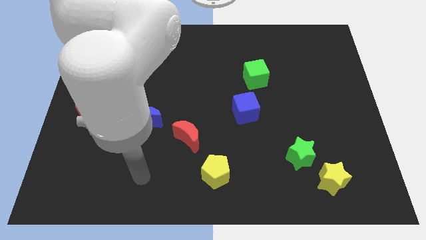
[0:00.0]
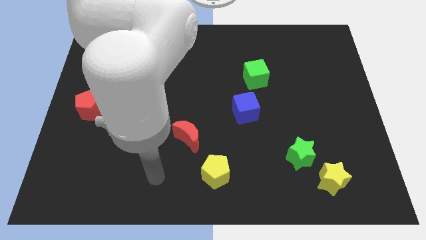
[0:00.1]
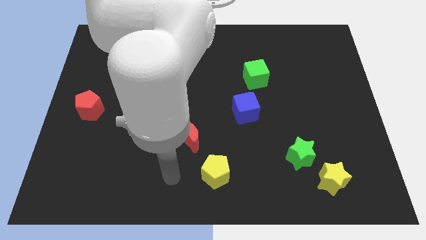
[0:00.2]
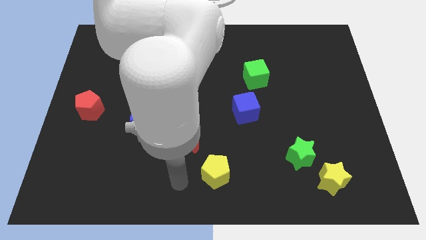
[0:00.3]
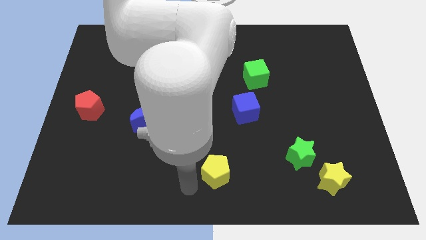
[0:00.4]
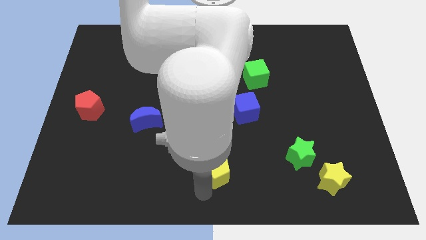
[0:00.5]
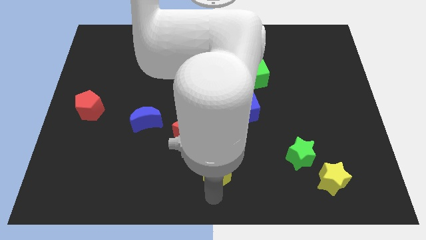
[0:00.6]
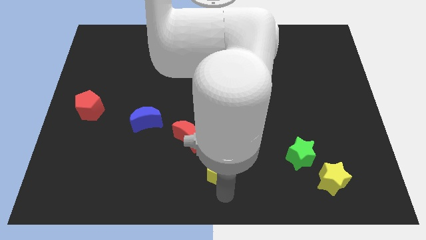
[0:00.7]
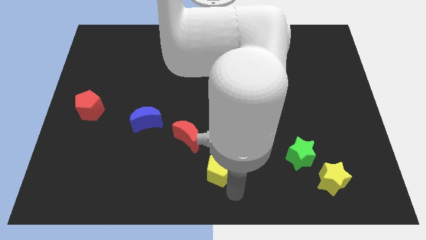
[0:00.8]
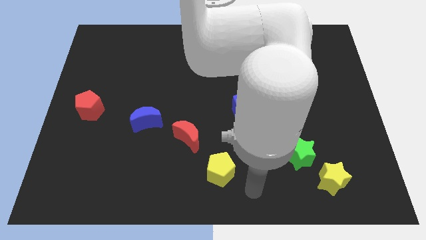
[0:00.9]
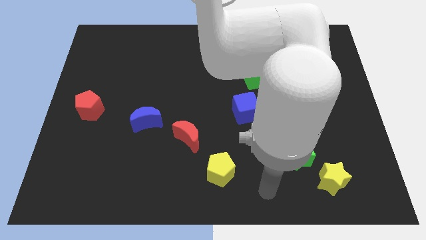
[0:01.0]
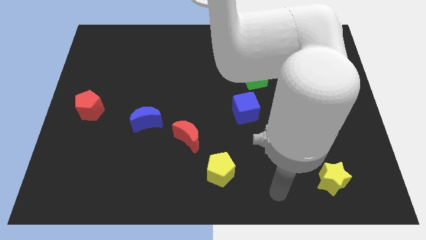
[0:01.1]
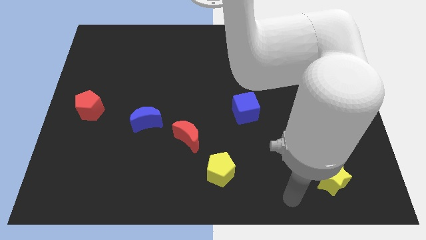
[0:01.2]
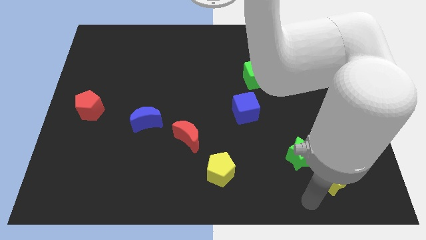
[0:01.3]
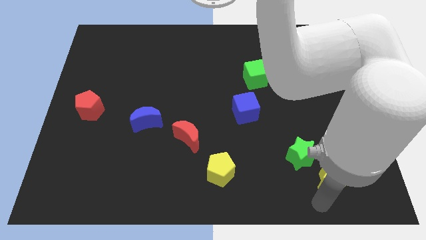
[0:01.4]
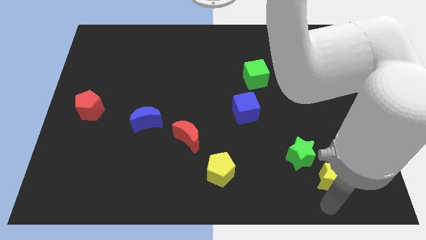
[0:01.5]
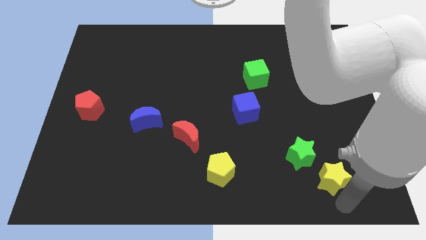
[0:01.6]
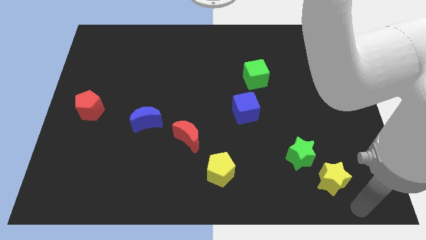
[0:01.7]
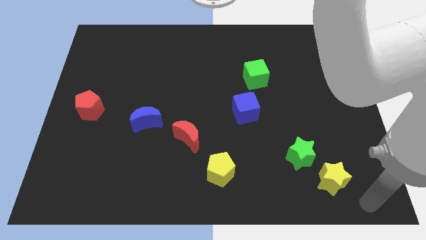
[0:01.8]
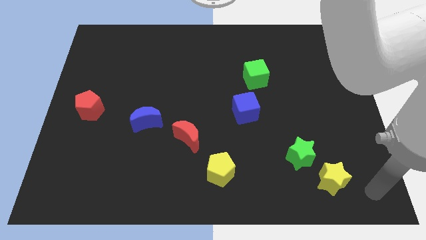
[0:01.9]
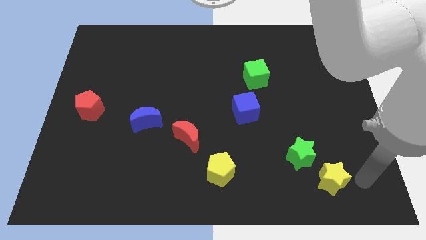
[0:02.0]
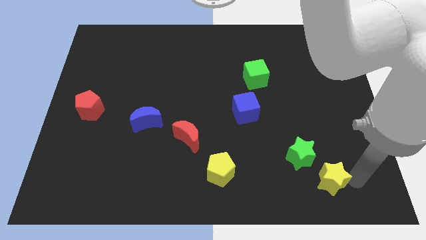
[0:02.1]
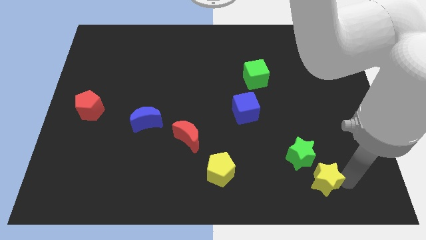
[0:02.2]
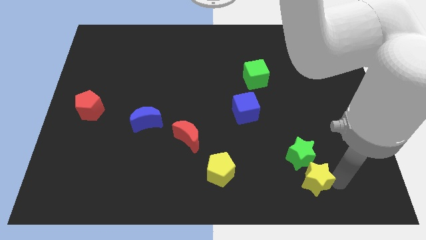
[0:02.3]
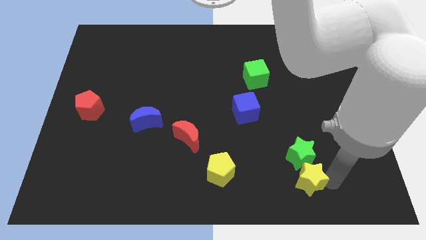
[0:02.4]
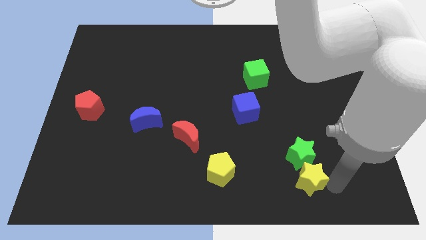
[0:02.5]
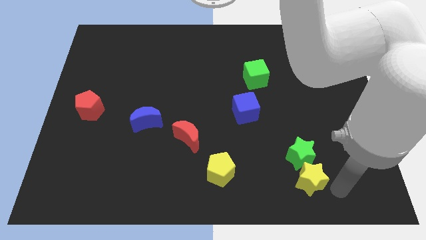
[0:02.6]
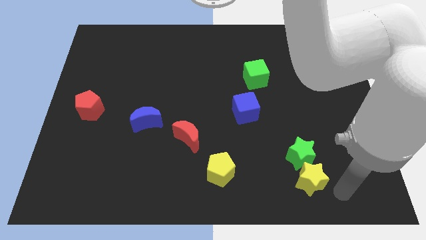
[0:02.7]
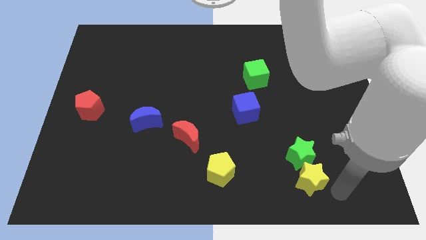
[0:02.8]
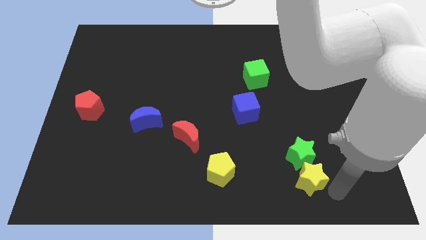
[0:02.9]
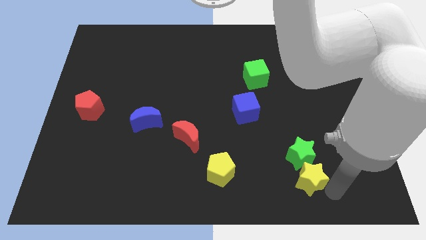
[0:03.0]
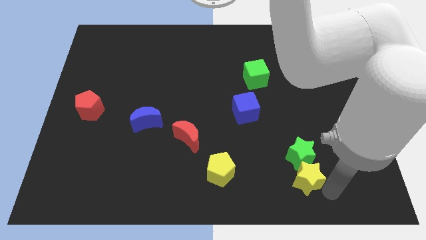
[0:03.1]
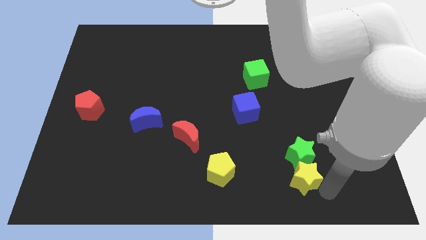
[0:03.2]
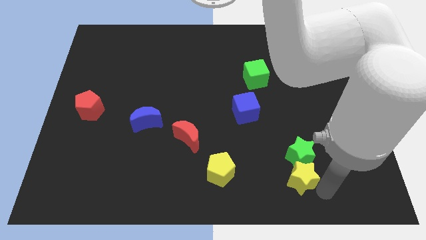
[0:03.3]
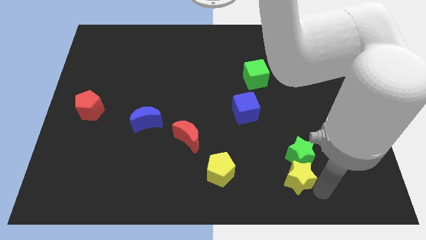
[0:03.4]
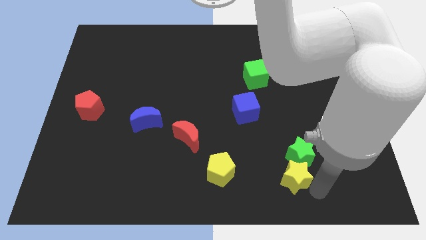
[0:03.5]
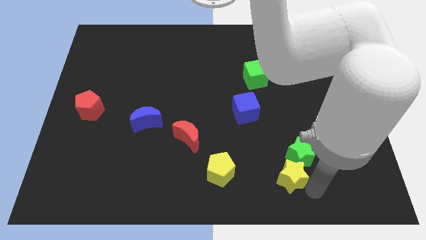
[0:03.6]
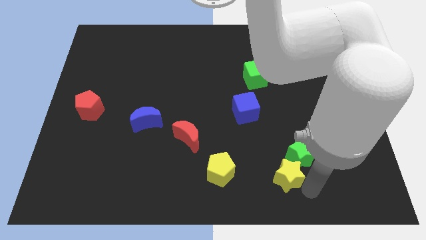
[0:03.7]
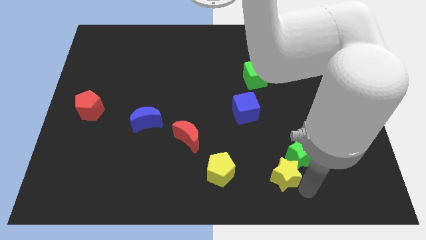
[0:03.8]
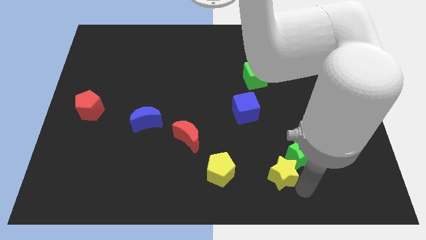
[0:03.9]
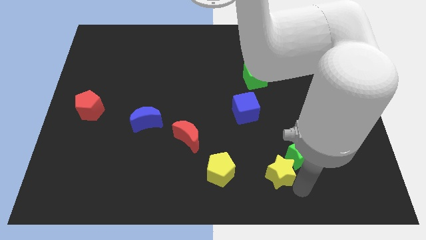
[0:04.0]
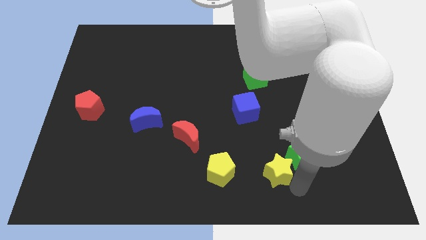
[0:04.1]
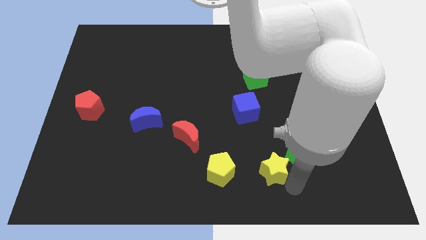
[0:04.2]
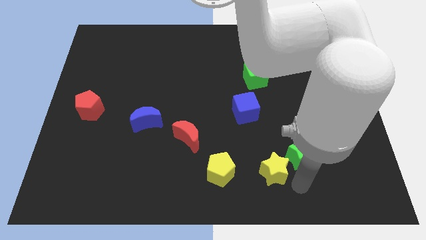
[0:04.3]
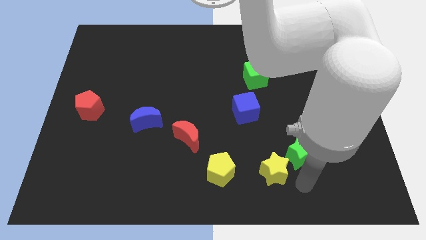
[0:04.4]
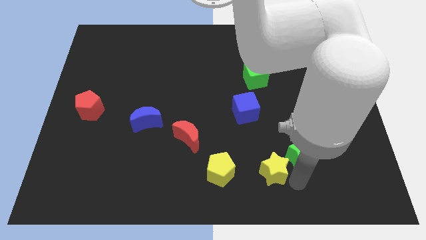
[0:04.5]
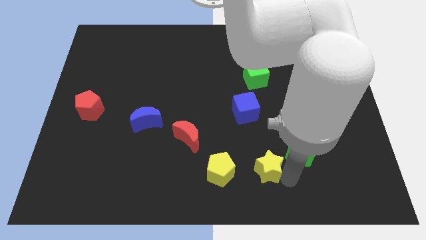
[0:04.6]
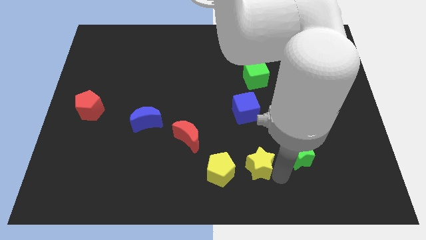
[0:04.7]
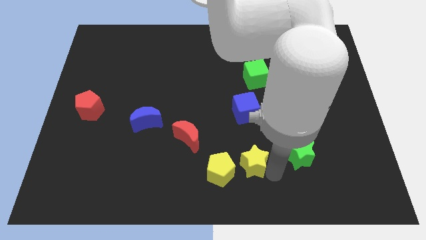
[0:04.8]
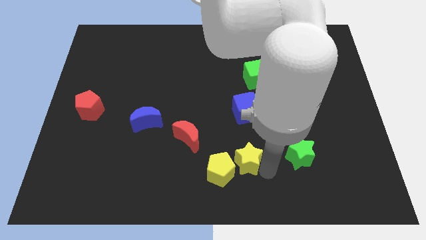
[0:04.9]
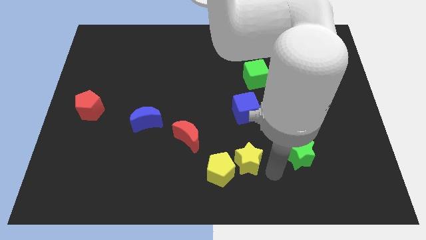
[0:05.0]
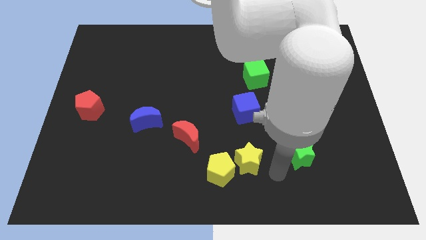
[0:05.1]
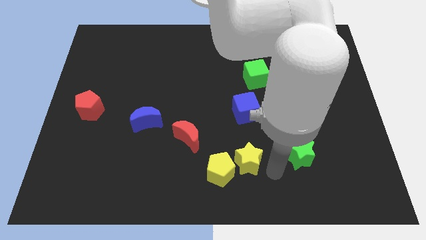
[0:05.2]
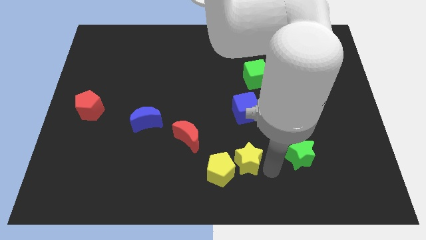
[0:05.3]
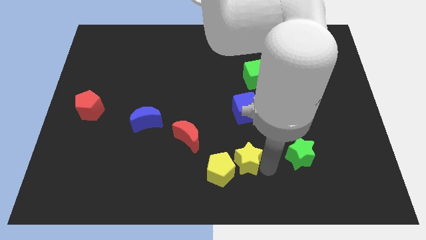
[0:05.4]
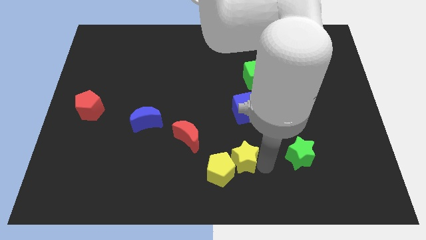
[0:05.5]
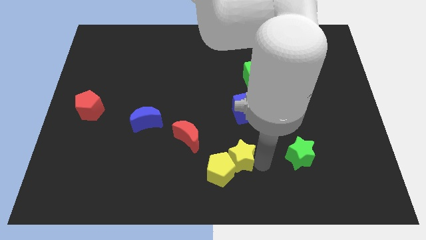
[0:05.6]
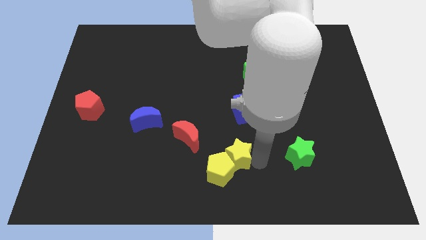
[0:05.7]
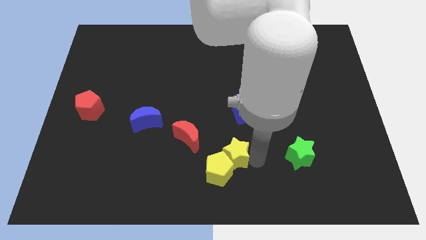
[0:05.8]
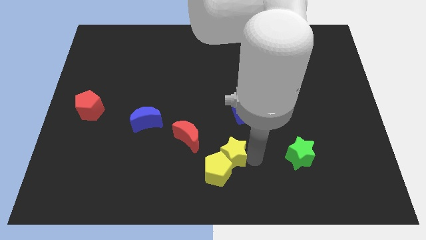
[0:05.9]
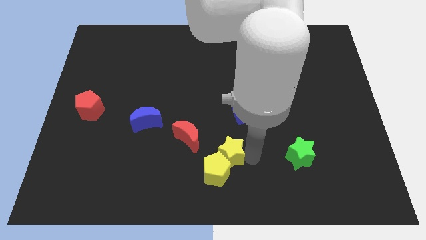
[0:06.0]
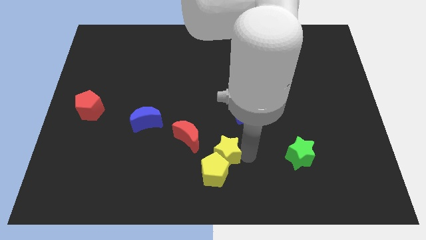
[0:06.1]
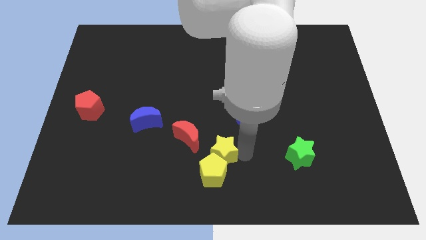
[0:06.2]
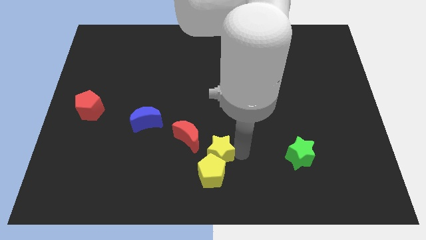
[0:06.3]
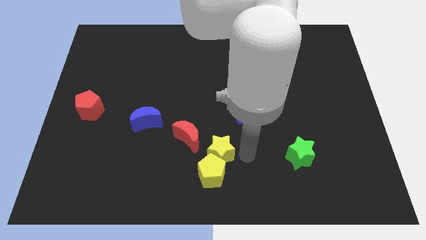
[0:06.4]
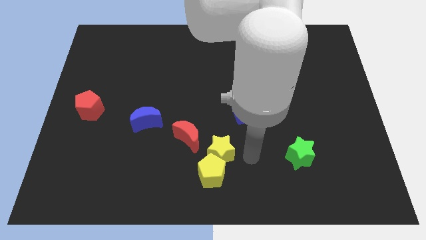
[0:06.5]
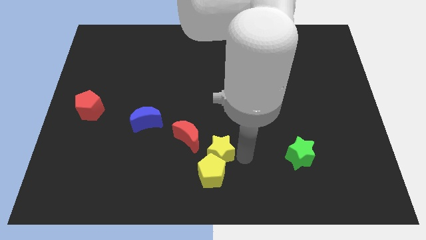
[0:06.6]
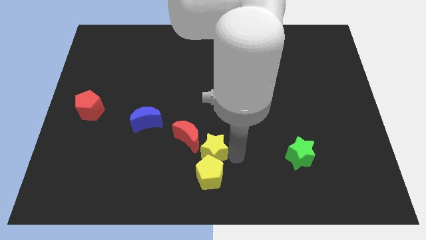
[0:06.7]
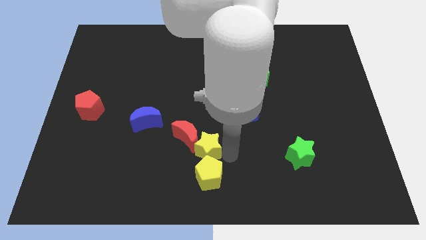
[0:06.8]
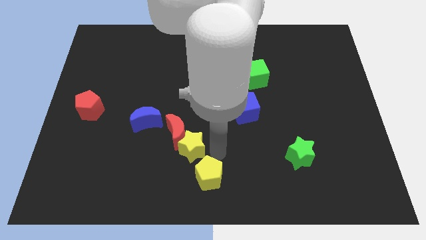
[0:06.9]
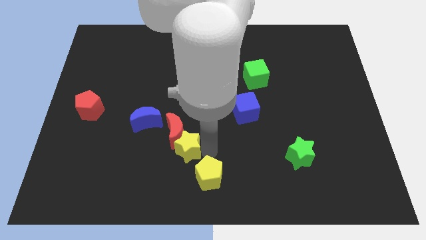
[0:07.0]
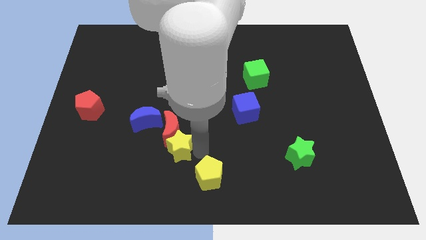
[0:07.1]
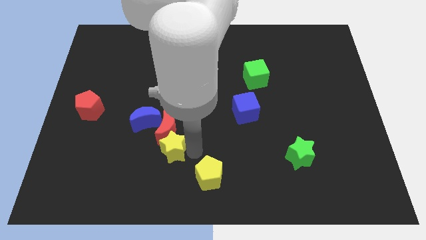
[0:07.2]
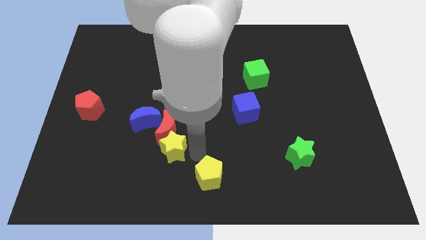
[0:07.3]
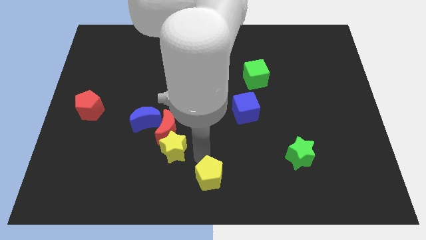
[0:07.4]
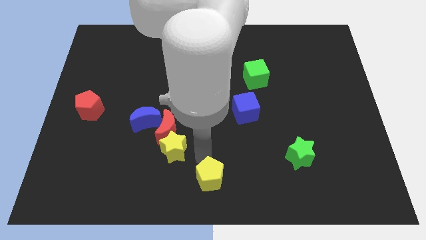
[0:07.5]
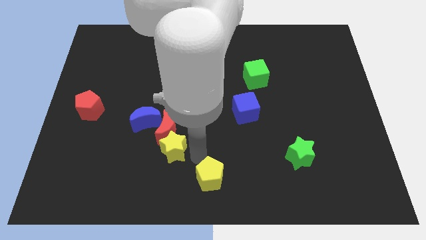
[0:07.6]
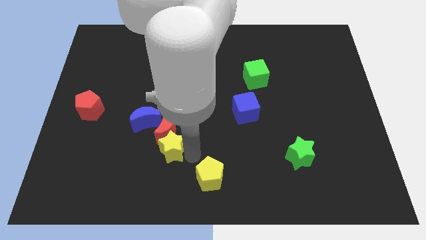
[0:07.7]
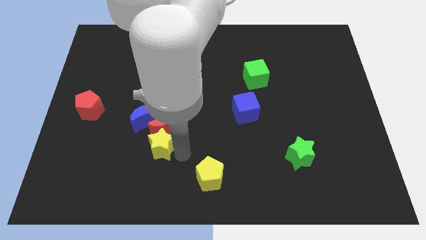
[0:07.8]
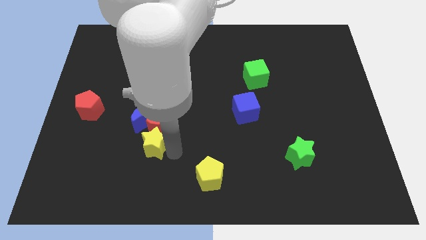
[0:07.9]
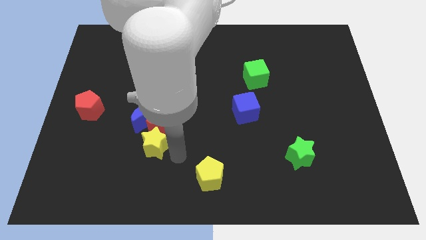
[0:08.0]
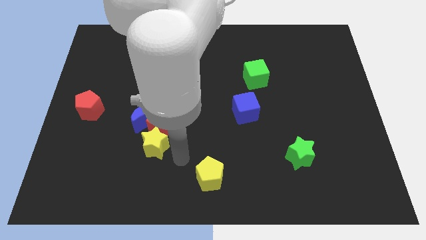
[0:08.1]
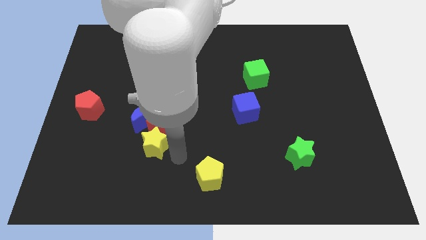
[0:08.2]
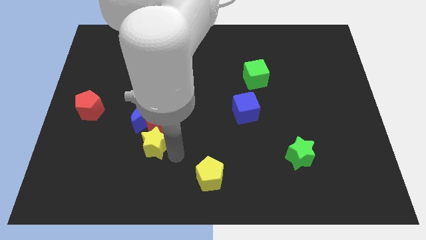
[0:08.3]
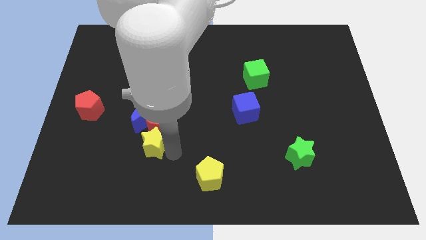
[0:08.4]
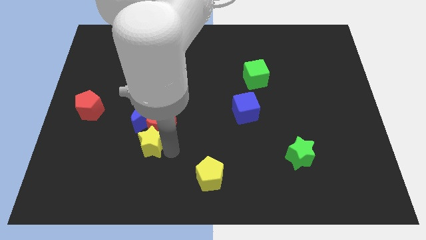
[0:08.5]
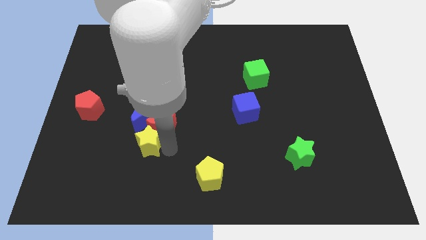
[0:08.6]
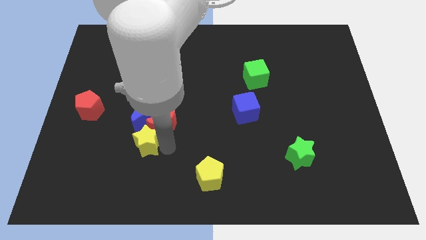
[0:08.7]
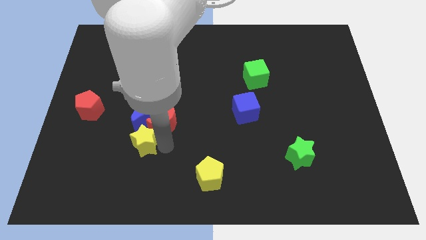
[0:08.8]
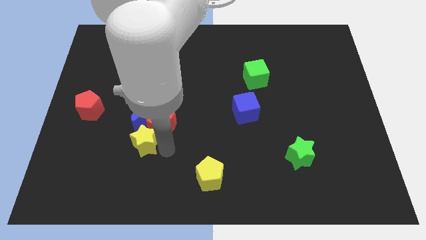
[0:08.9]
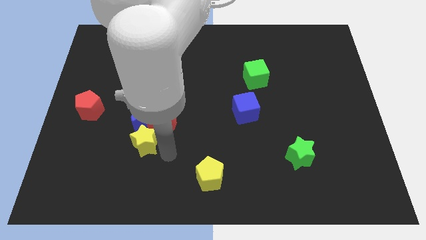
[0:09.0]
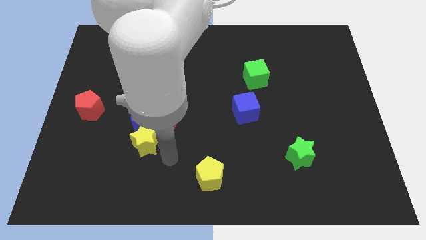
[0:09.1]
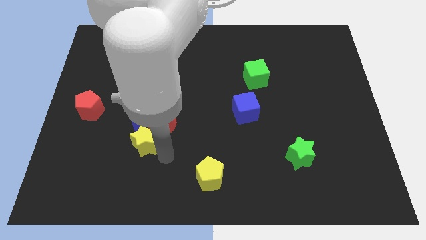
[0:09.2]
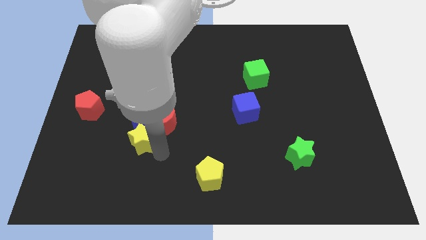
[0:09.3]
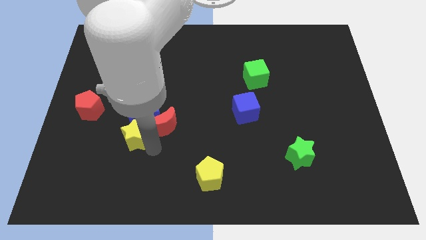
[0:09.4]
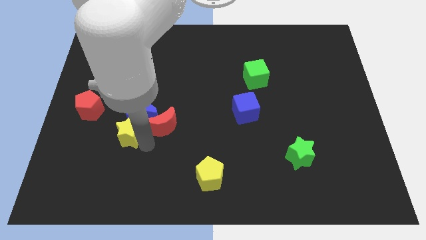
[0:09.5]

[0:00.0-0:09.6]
slide the yellow star diagonally down and to the right of the red pentagon
